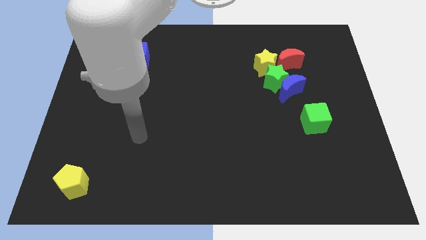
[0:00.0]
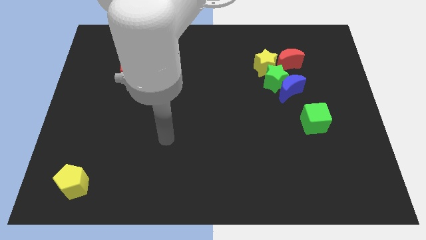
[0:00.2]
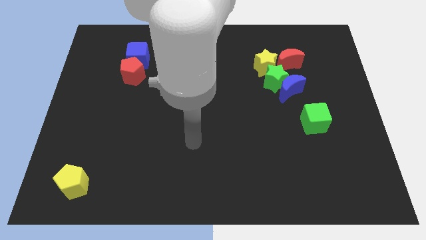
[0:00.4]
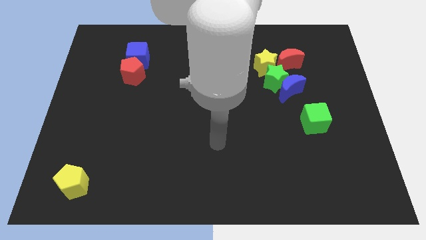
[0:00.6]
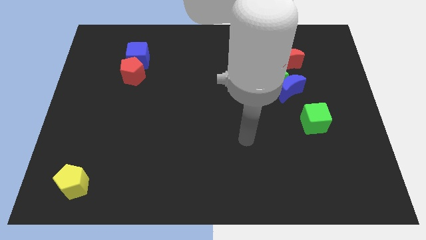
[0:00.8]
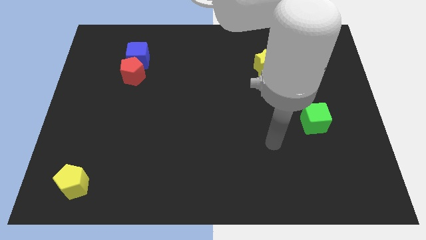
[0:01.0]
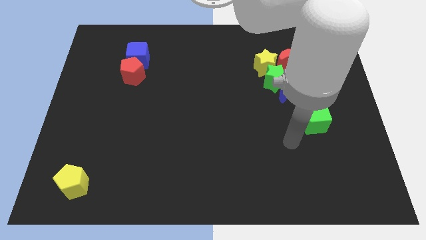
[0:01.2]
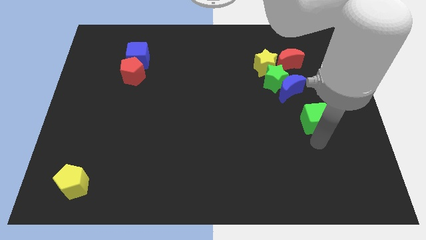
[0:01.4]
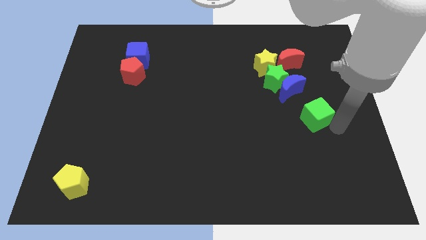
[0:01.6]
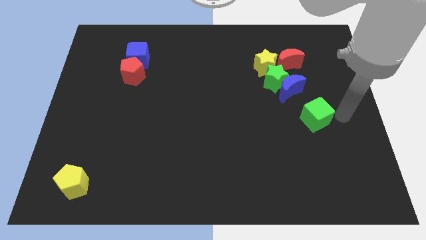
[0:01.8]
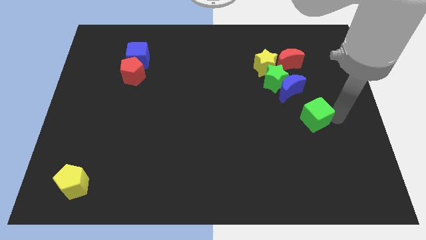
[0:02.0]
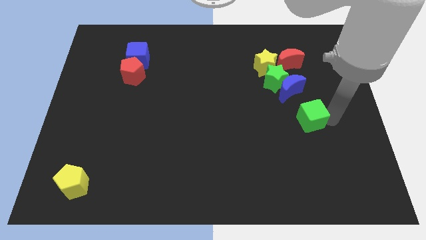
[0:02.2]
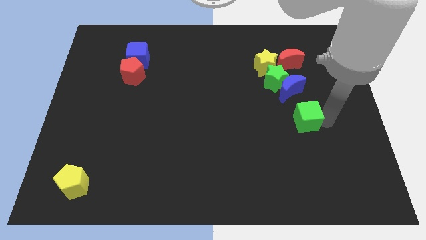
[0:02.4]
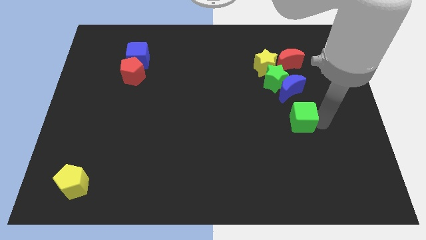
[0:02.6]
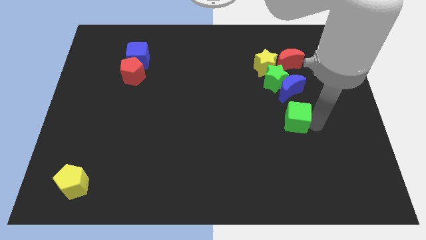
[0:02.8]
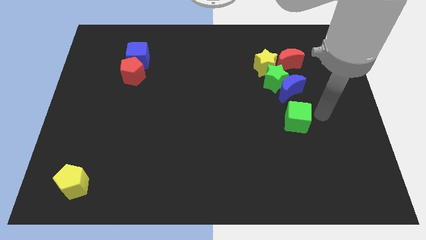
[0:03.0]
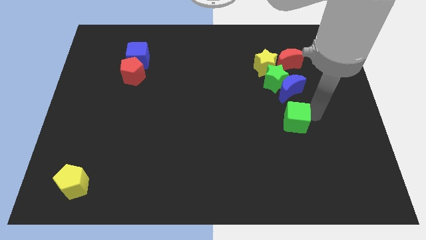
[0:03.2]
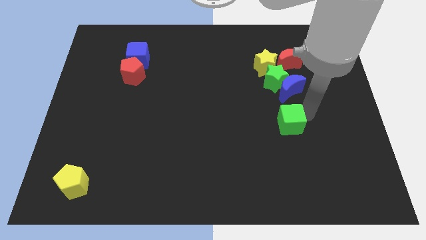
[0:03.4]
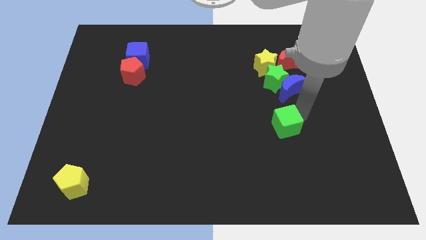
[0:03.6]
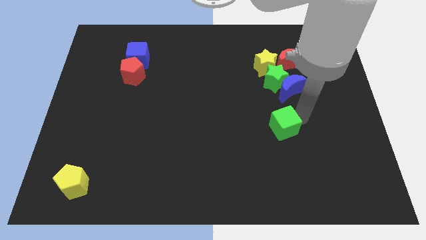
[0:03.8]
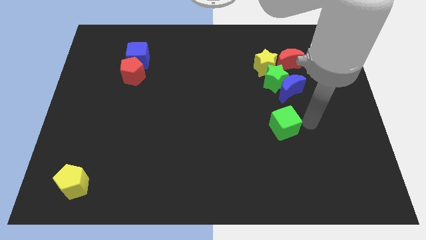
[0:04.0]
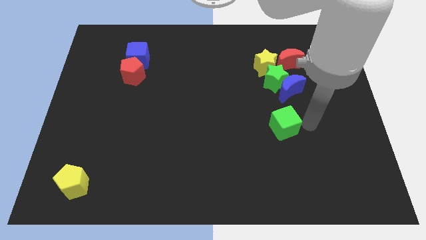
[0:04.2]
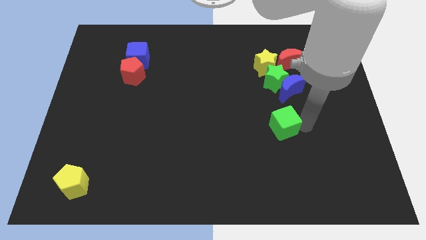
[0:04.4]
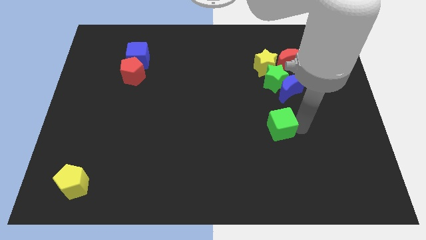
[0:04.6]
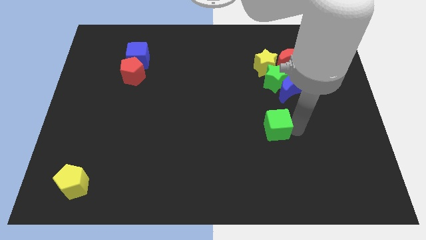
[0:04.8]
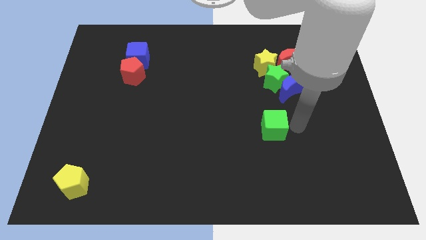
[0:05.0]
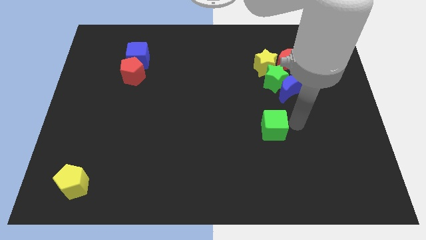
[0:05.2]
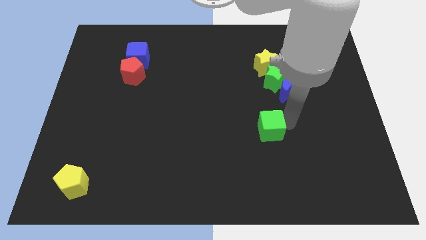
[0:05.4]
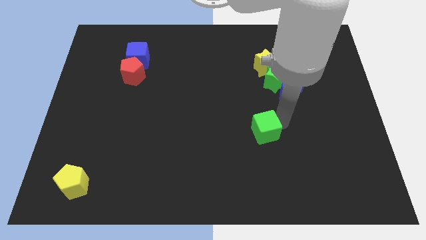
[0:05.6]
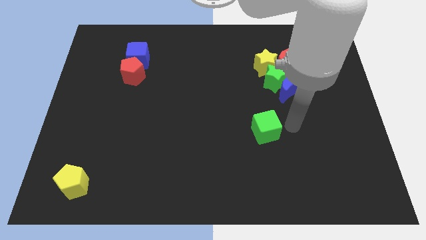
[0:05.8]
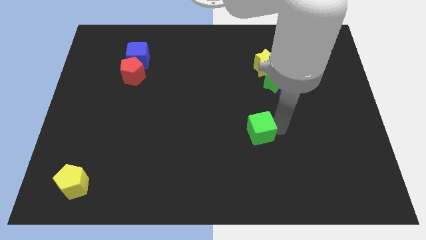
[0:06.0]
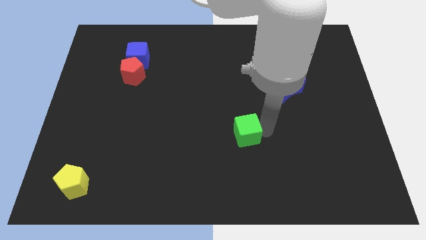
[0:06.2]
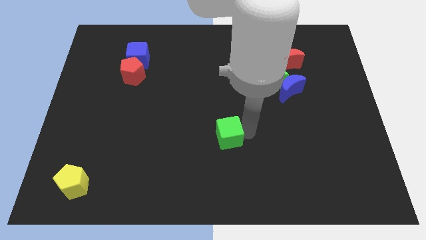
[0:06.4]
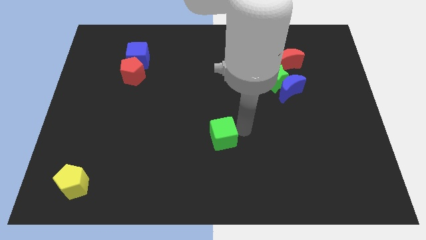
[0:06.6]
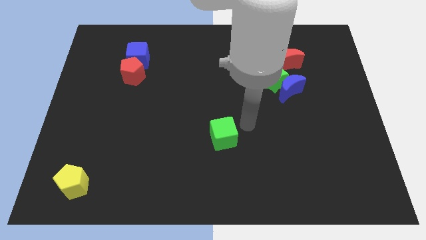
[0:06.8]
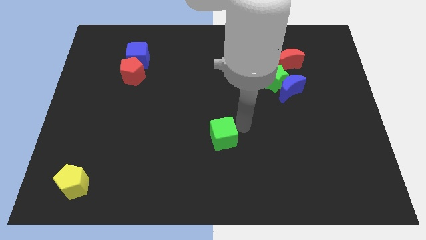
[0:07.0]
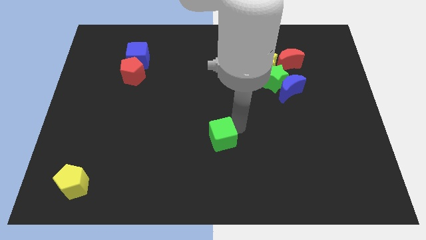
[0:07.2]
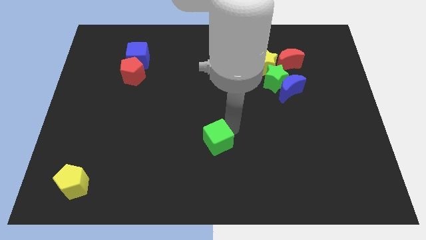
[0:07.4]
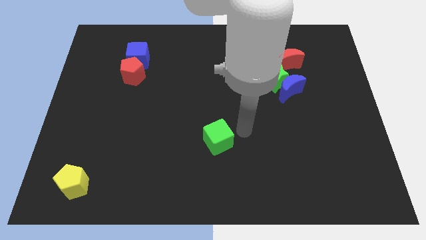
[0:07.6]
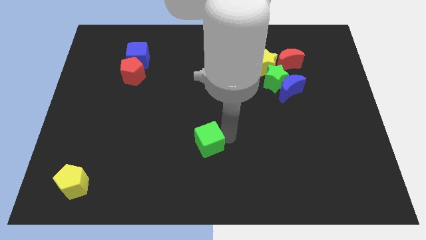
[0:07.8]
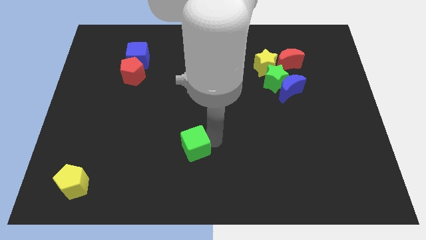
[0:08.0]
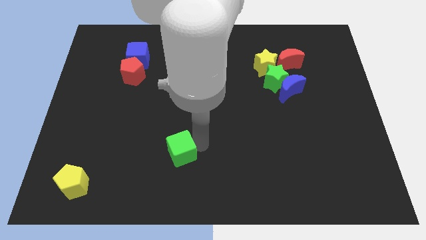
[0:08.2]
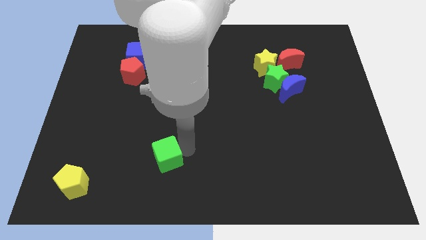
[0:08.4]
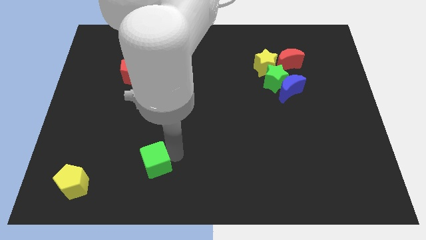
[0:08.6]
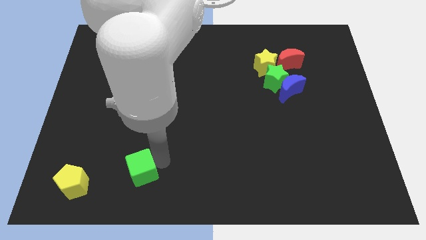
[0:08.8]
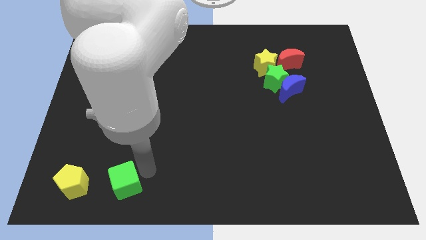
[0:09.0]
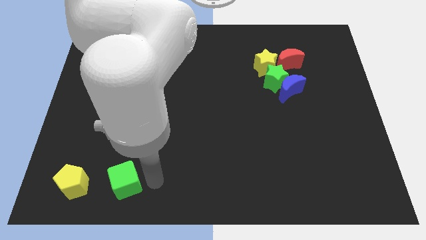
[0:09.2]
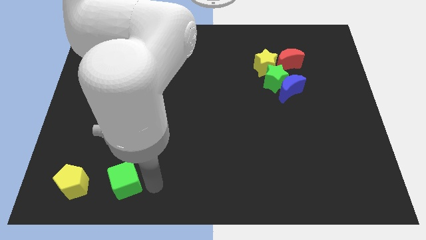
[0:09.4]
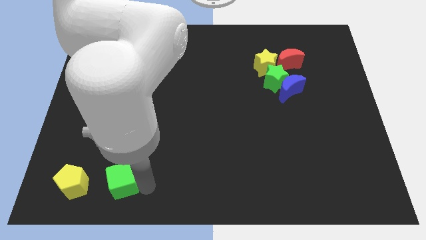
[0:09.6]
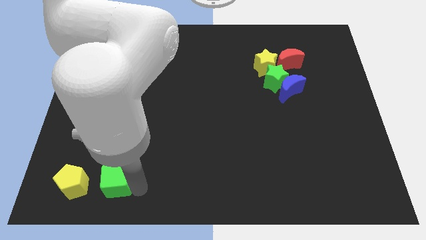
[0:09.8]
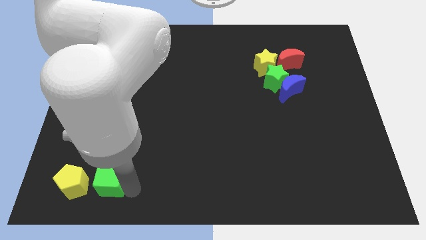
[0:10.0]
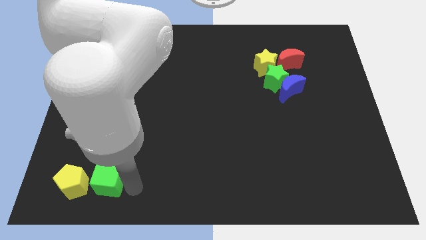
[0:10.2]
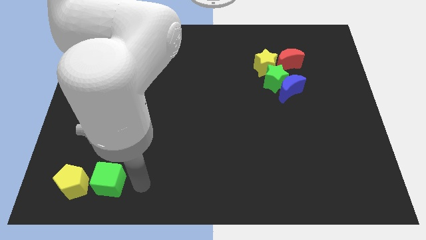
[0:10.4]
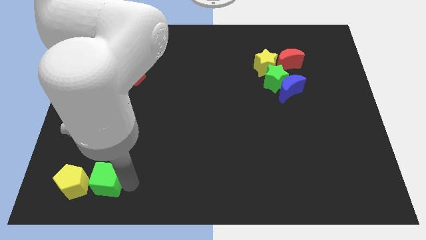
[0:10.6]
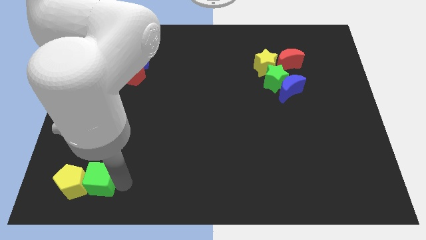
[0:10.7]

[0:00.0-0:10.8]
slide the green cube close to the yellow pentagon

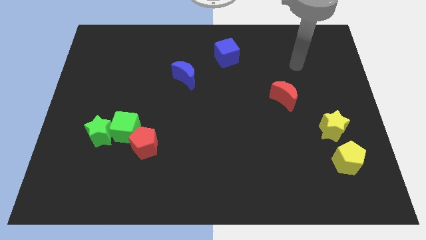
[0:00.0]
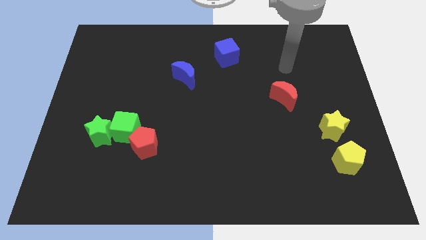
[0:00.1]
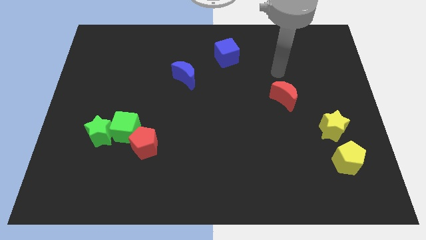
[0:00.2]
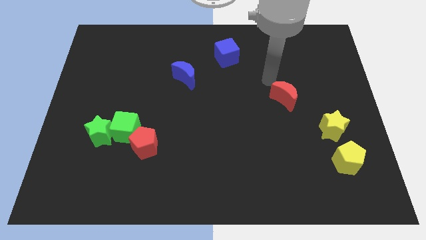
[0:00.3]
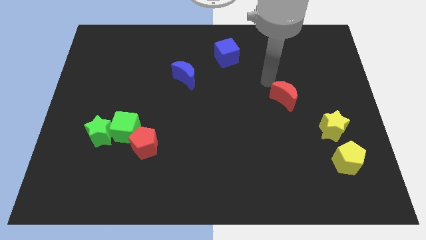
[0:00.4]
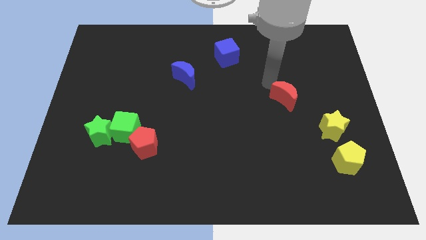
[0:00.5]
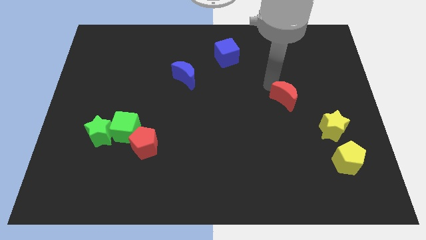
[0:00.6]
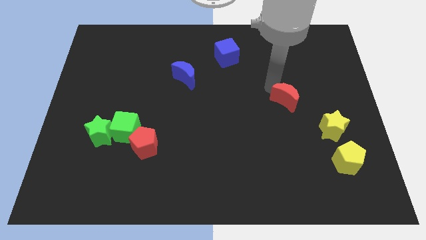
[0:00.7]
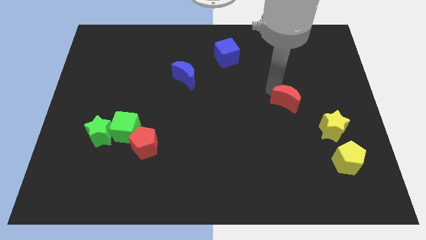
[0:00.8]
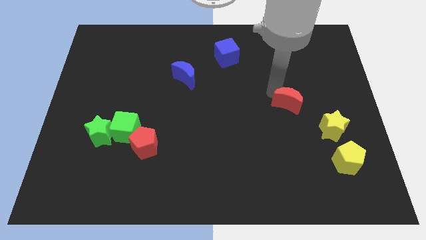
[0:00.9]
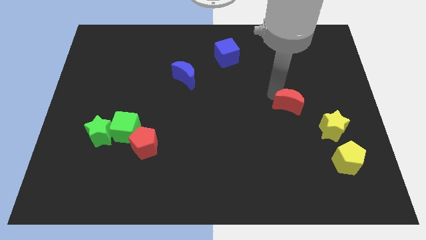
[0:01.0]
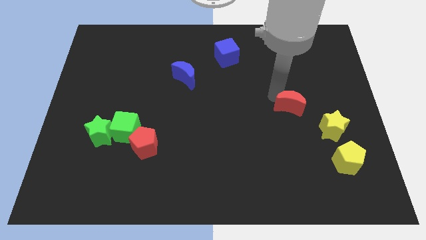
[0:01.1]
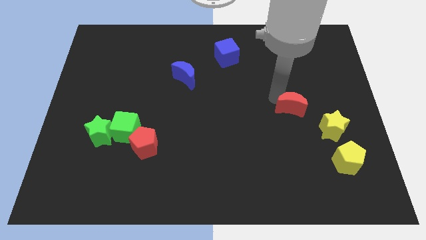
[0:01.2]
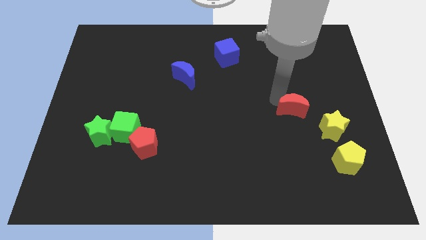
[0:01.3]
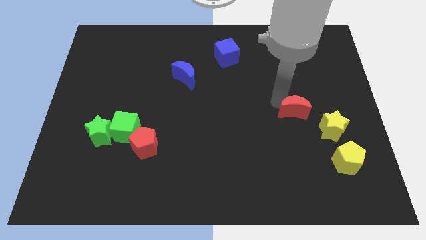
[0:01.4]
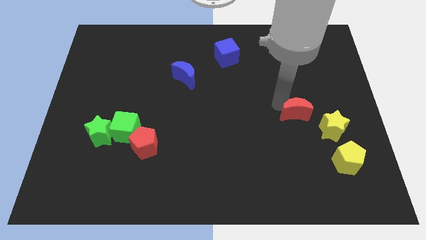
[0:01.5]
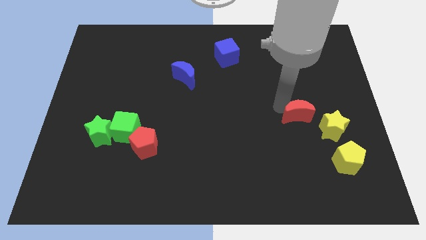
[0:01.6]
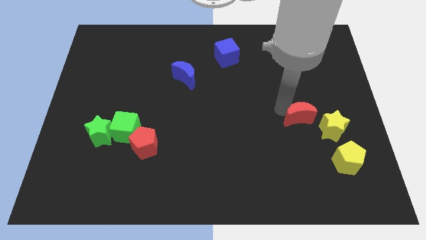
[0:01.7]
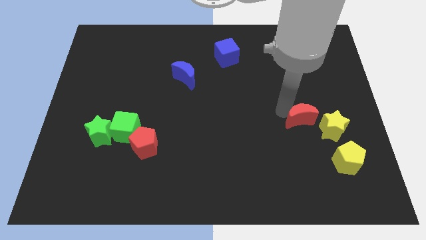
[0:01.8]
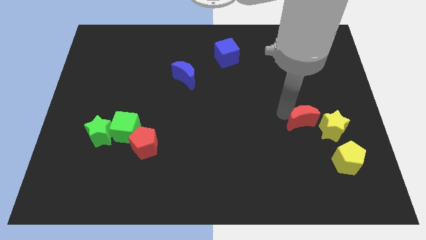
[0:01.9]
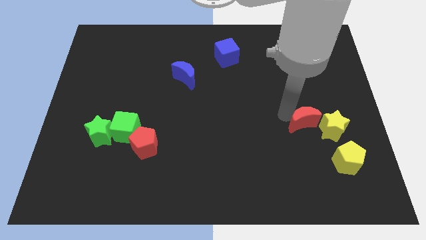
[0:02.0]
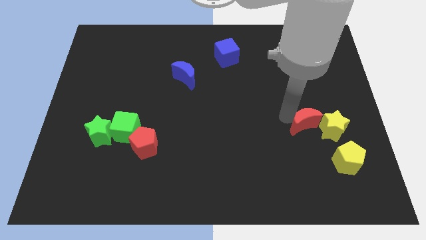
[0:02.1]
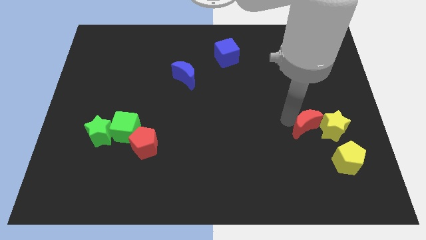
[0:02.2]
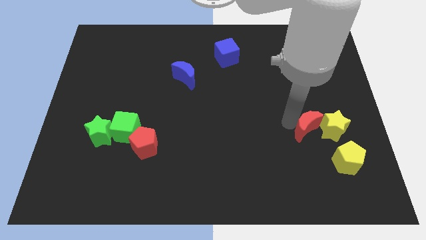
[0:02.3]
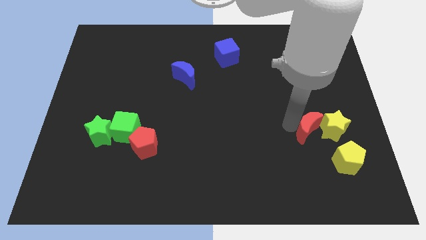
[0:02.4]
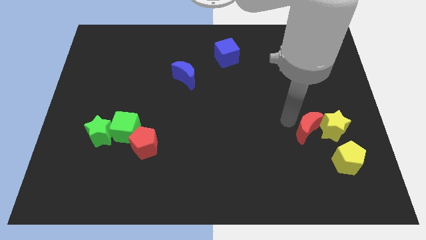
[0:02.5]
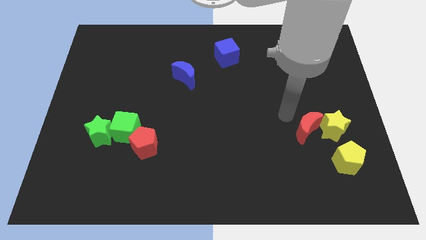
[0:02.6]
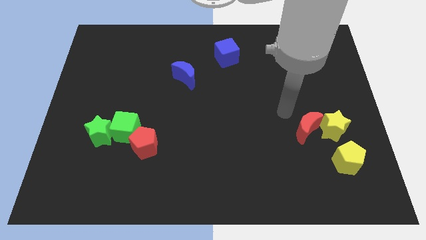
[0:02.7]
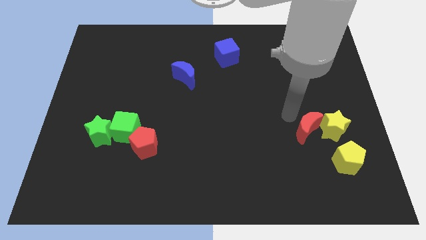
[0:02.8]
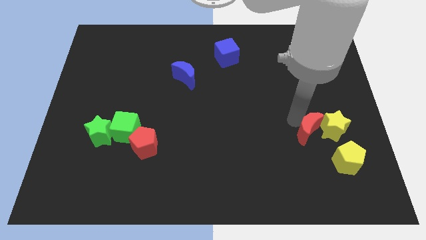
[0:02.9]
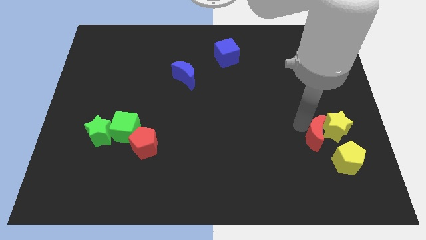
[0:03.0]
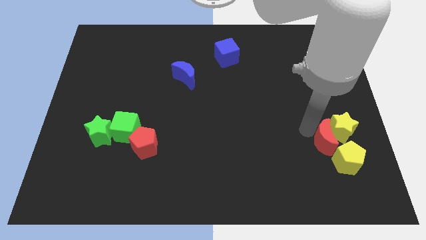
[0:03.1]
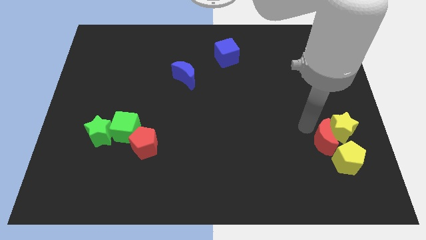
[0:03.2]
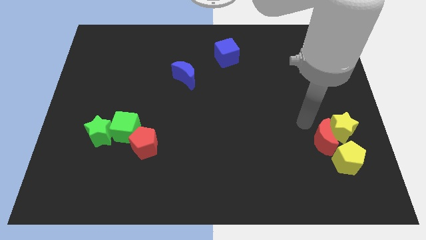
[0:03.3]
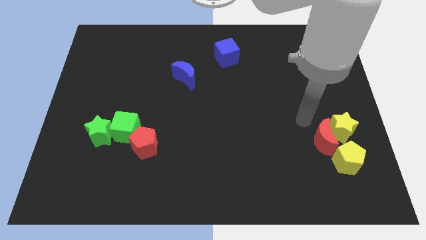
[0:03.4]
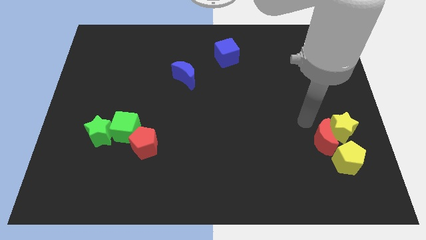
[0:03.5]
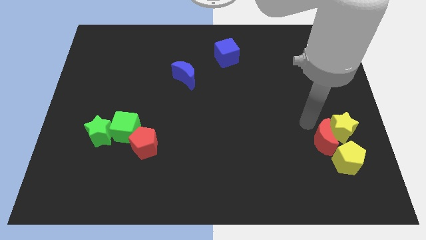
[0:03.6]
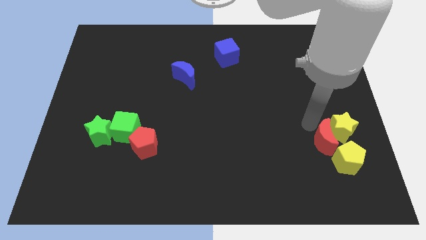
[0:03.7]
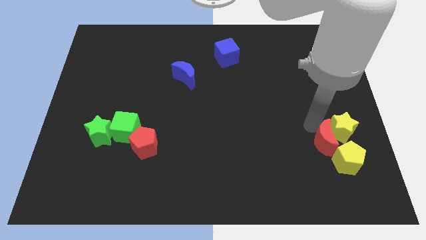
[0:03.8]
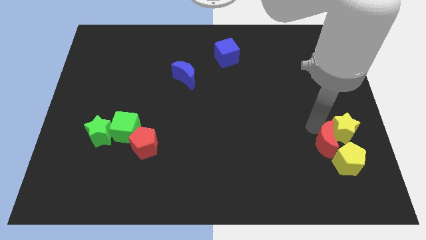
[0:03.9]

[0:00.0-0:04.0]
slide the red moon next to the yellow pentagon
